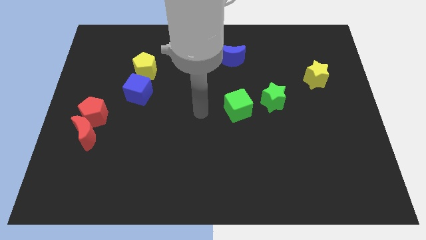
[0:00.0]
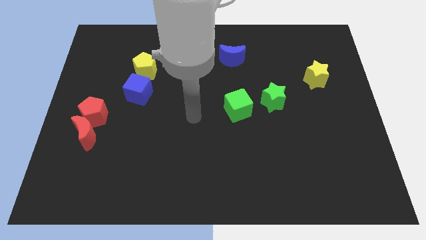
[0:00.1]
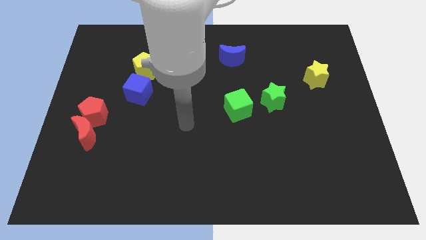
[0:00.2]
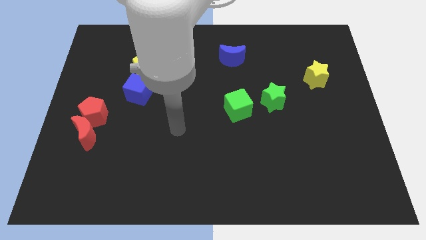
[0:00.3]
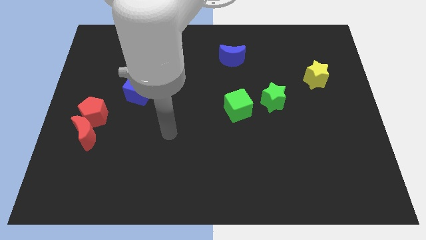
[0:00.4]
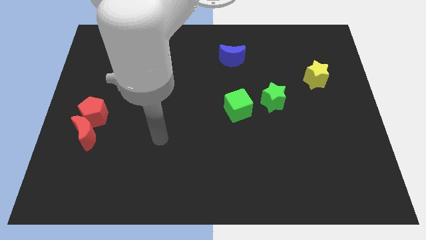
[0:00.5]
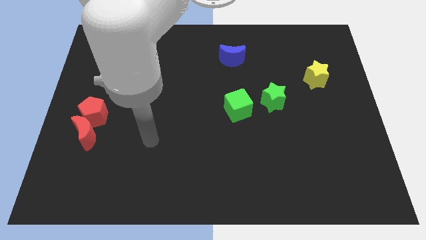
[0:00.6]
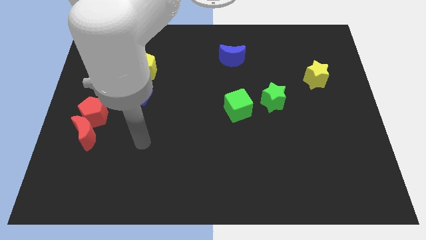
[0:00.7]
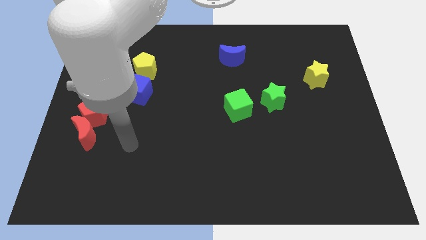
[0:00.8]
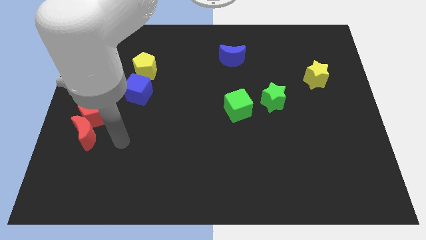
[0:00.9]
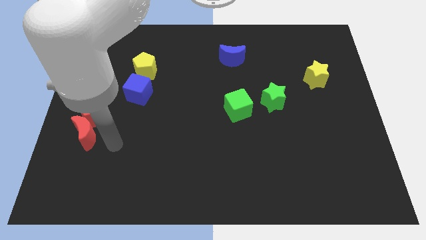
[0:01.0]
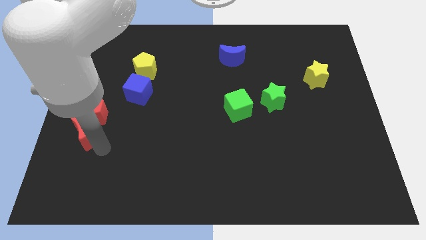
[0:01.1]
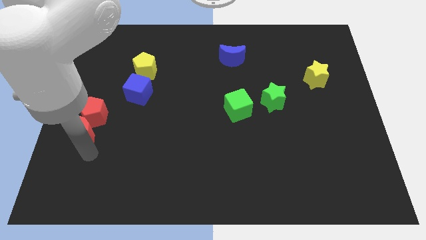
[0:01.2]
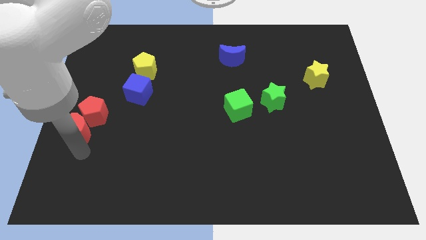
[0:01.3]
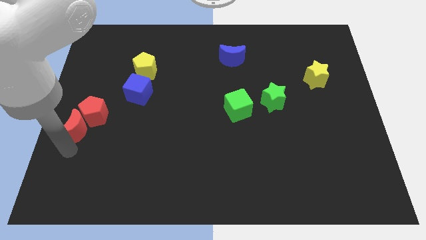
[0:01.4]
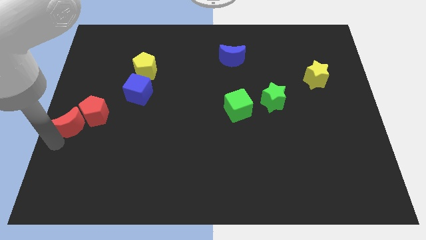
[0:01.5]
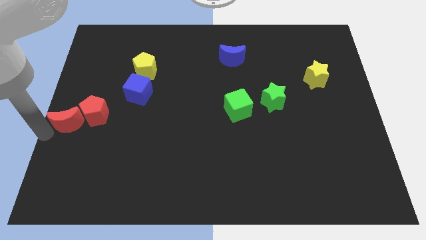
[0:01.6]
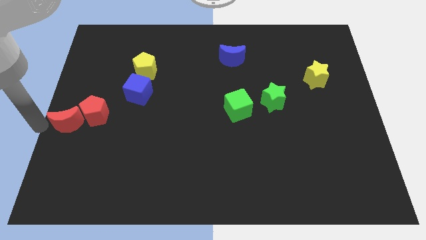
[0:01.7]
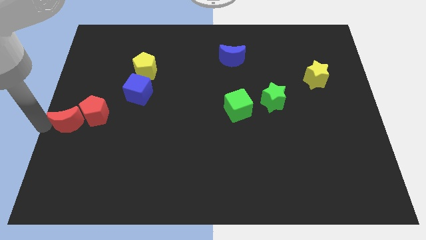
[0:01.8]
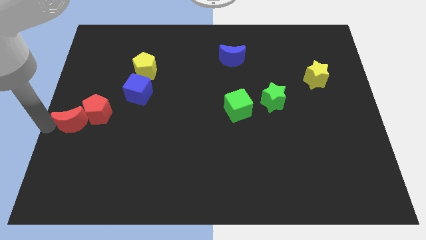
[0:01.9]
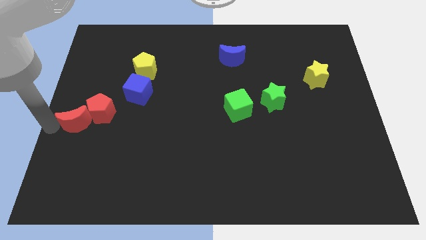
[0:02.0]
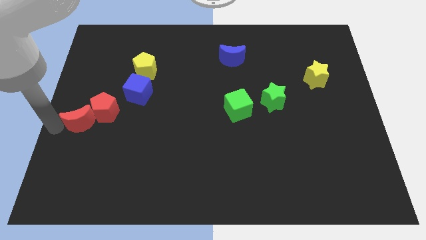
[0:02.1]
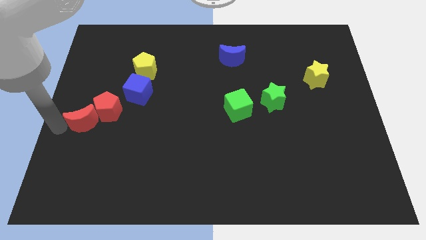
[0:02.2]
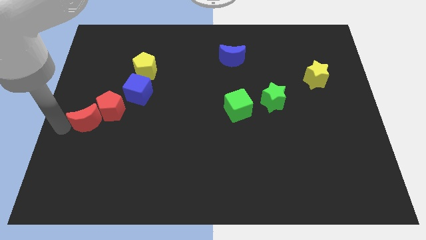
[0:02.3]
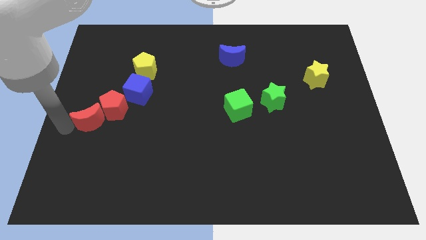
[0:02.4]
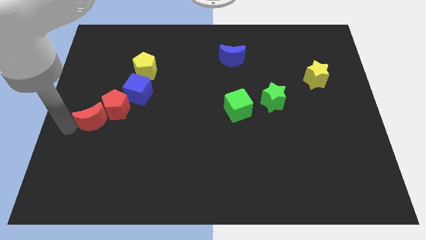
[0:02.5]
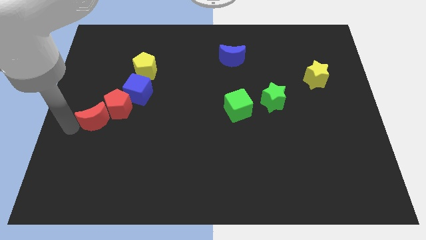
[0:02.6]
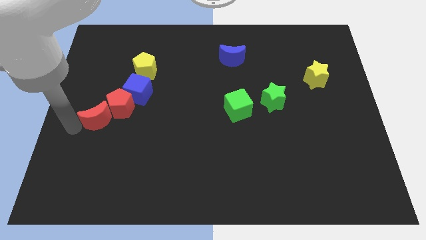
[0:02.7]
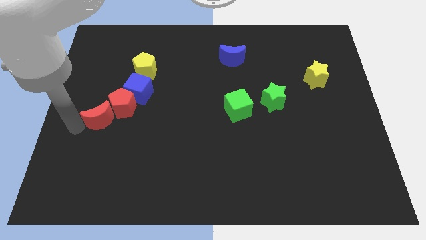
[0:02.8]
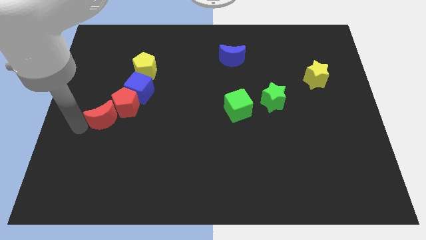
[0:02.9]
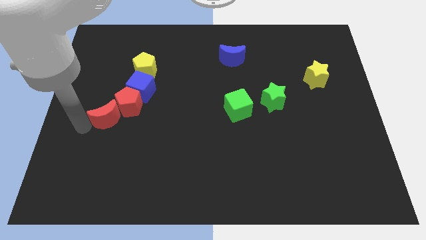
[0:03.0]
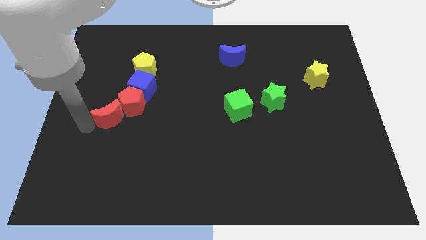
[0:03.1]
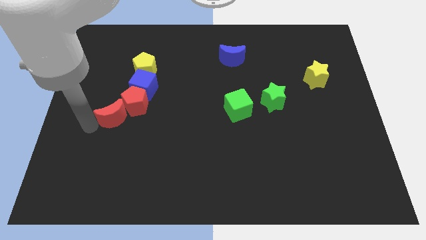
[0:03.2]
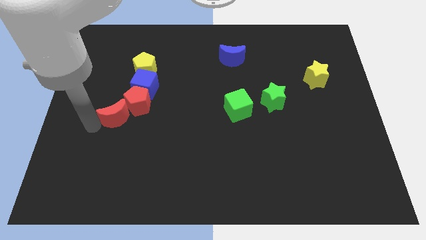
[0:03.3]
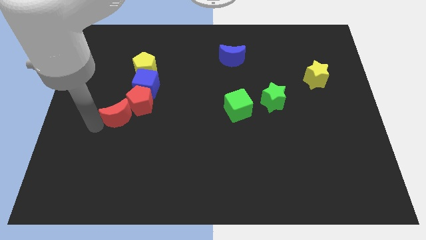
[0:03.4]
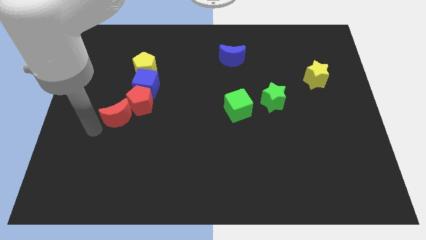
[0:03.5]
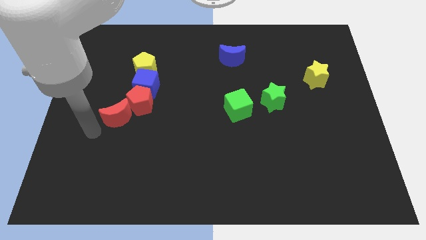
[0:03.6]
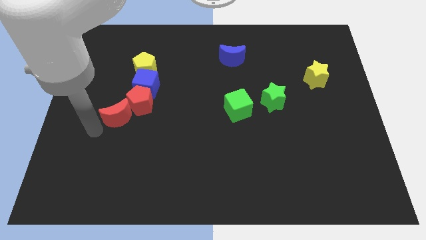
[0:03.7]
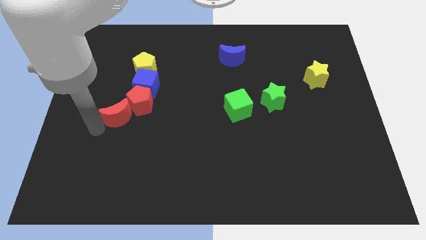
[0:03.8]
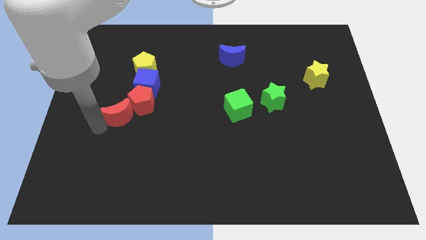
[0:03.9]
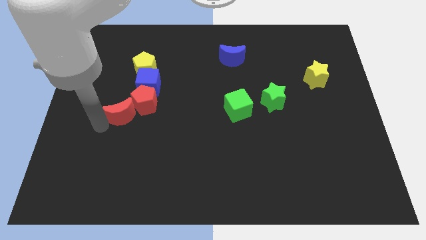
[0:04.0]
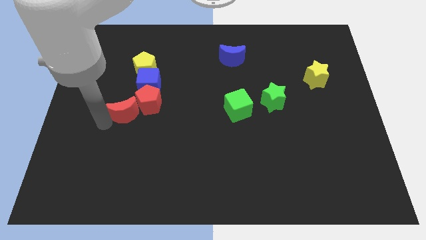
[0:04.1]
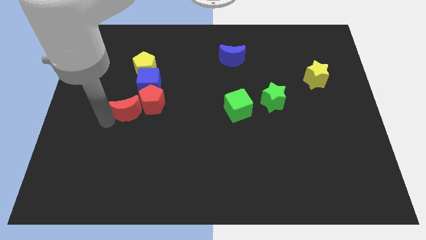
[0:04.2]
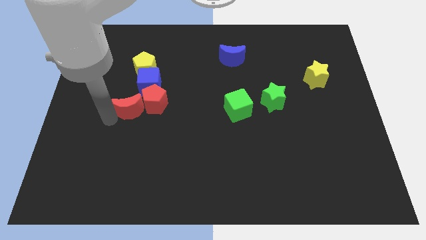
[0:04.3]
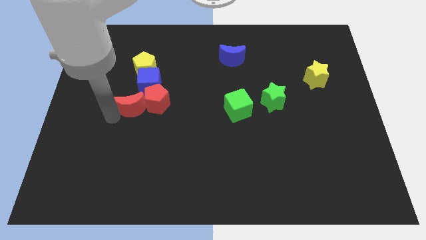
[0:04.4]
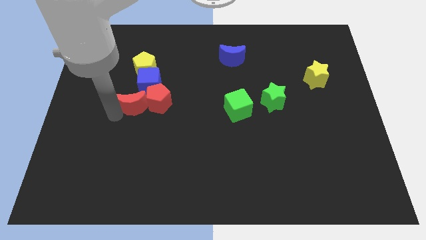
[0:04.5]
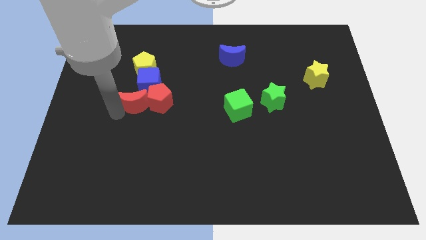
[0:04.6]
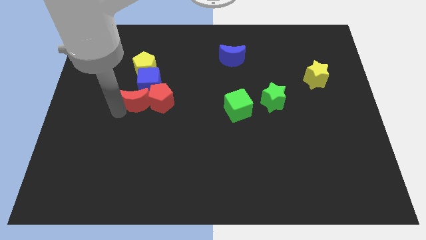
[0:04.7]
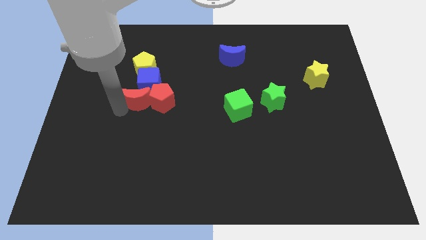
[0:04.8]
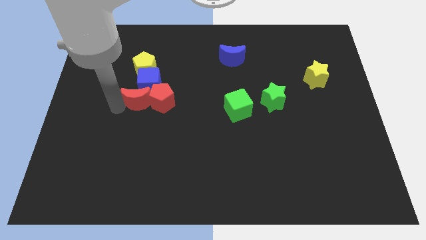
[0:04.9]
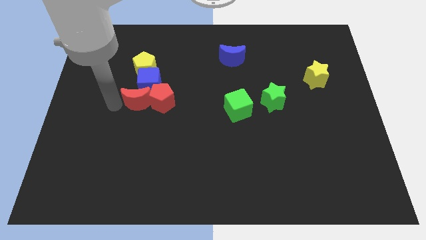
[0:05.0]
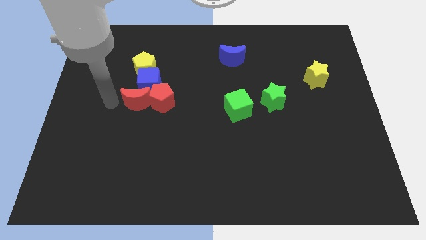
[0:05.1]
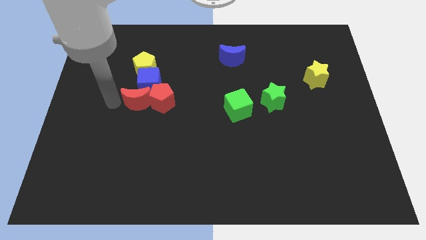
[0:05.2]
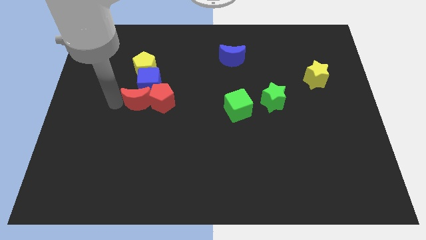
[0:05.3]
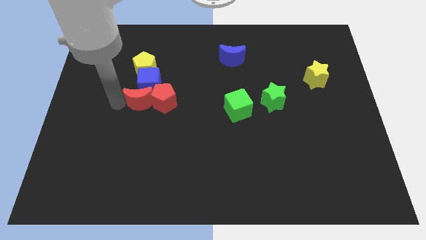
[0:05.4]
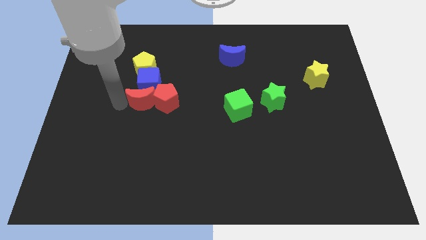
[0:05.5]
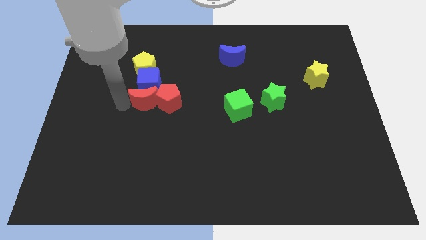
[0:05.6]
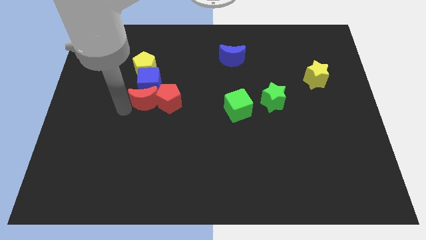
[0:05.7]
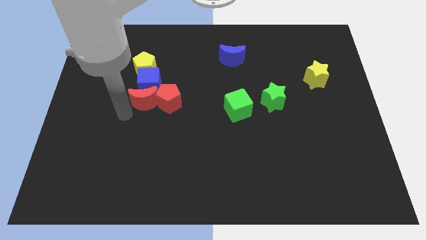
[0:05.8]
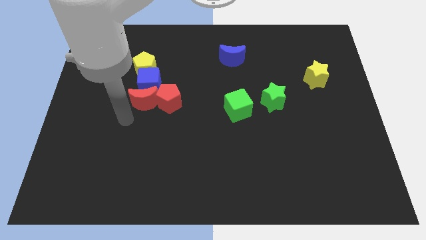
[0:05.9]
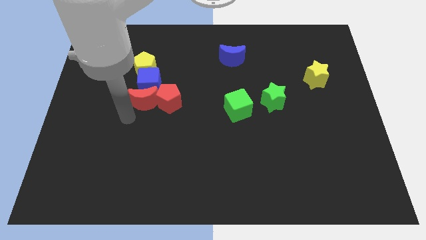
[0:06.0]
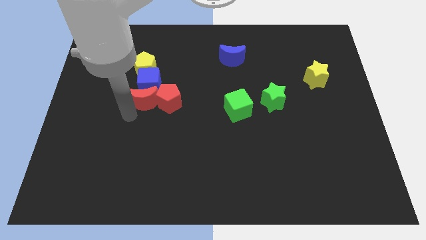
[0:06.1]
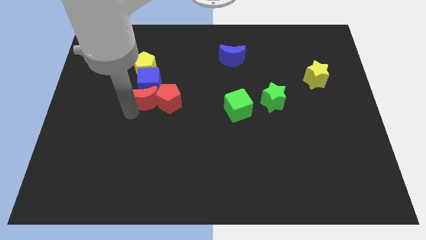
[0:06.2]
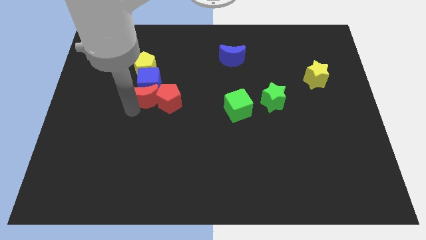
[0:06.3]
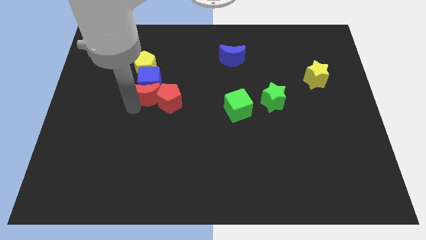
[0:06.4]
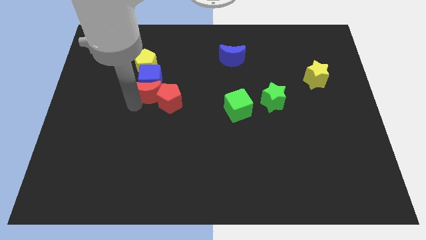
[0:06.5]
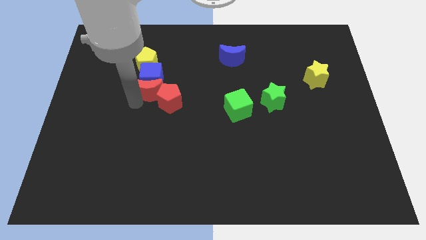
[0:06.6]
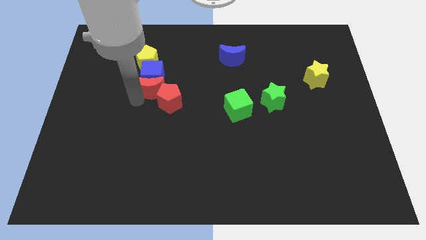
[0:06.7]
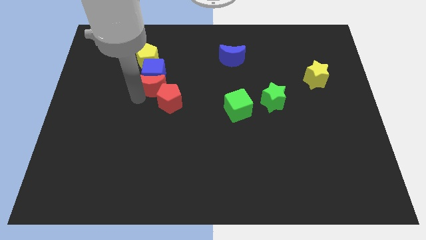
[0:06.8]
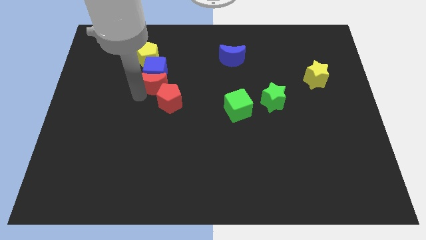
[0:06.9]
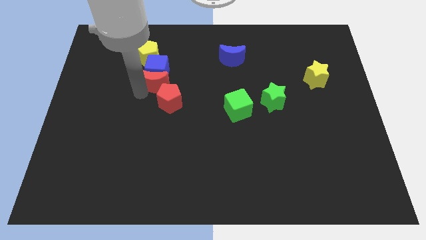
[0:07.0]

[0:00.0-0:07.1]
slide the red moon to the bottom right of the yellow pentagon

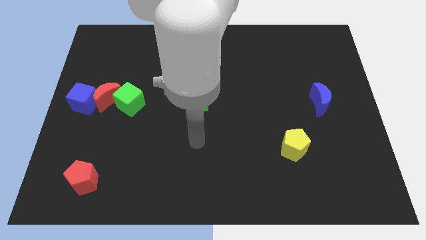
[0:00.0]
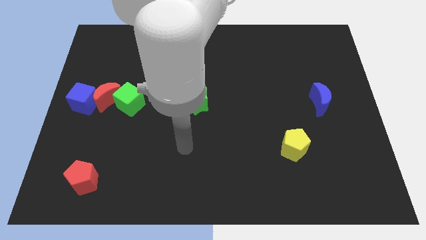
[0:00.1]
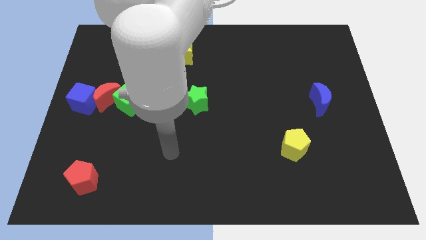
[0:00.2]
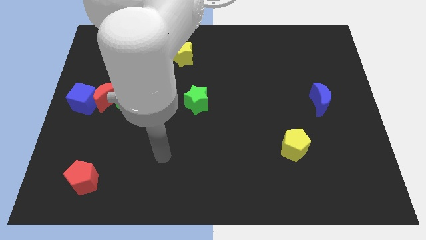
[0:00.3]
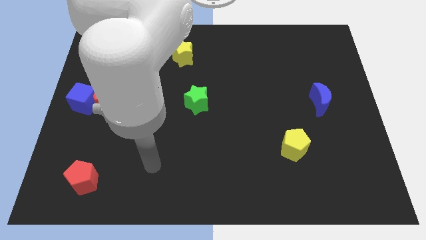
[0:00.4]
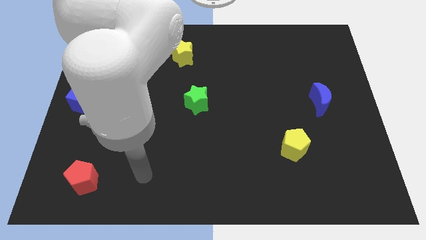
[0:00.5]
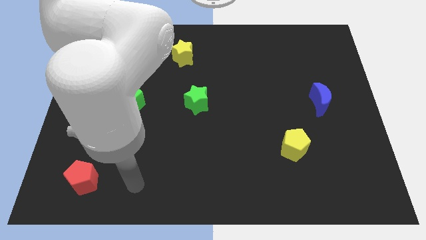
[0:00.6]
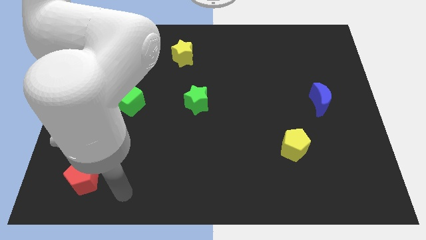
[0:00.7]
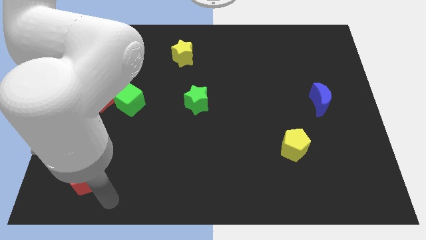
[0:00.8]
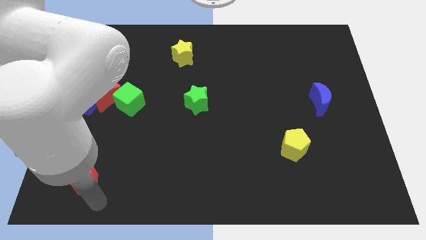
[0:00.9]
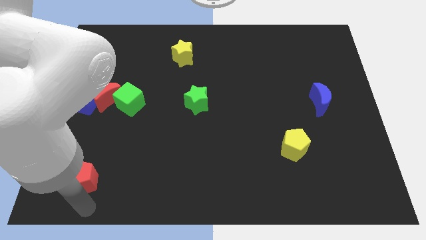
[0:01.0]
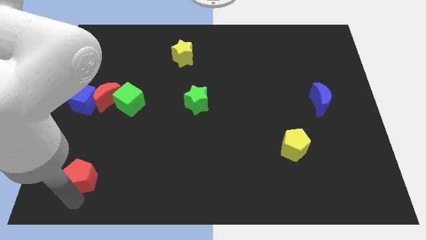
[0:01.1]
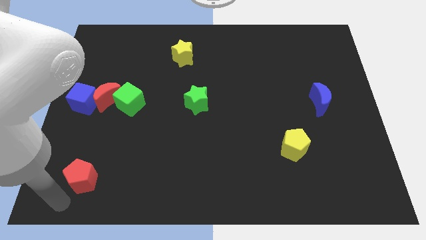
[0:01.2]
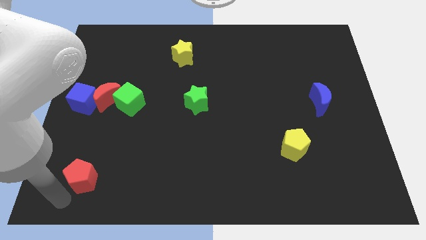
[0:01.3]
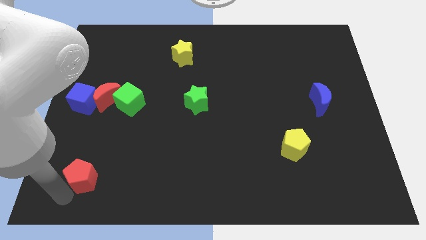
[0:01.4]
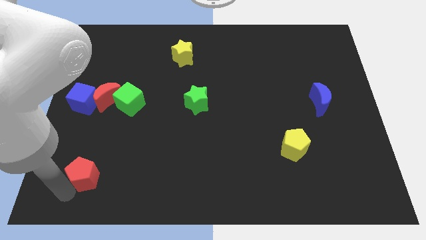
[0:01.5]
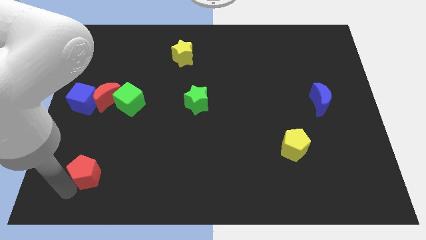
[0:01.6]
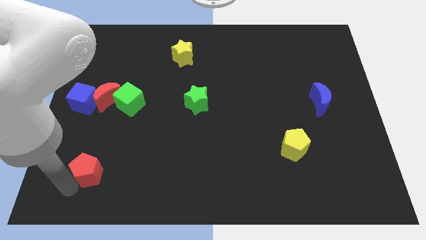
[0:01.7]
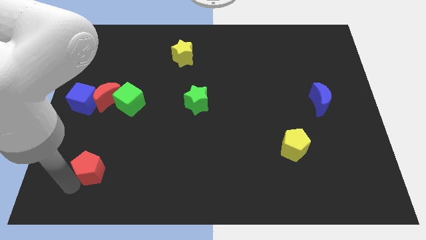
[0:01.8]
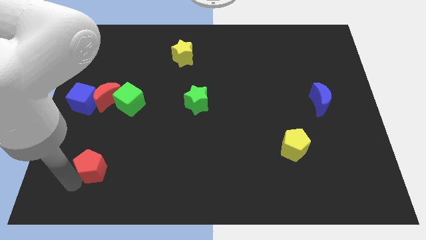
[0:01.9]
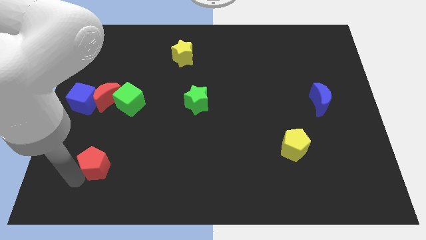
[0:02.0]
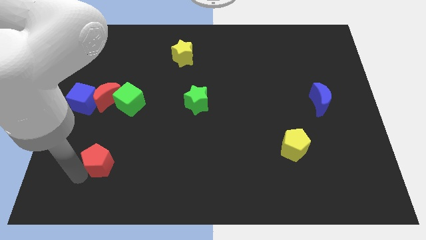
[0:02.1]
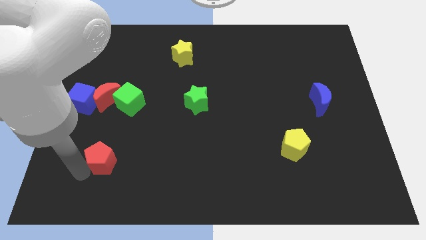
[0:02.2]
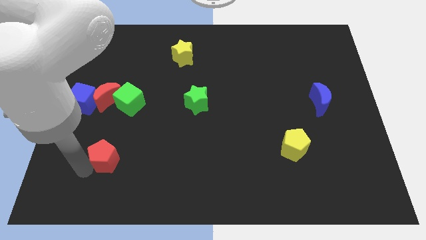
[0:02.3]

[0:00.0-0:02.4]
put the red pentagon to the bottom side of the green cube
